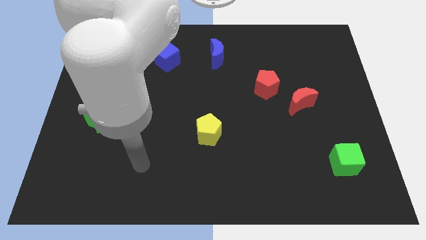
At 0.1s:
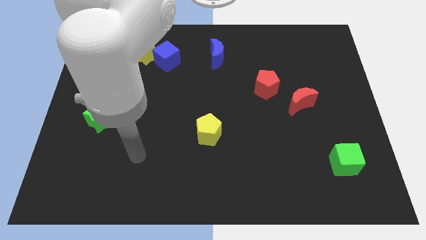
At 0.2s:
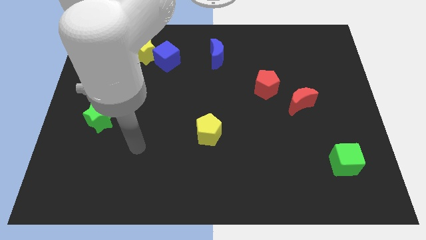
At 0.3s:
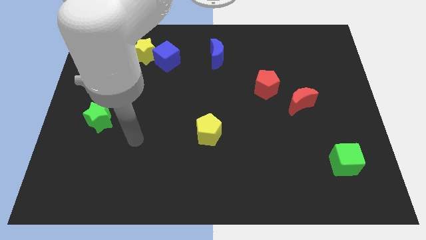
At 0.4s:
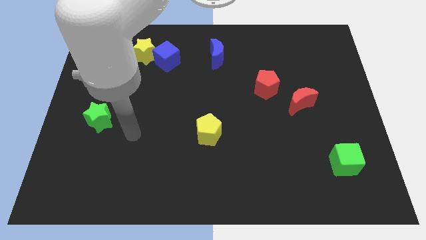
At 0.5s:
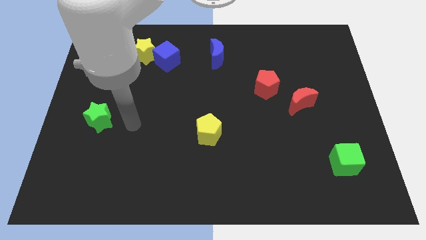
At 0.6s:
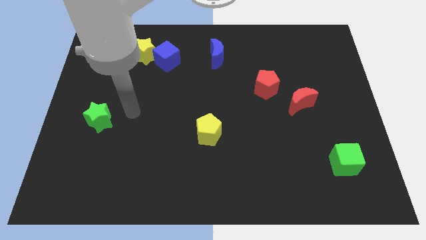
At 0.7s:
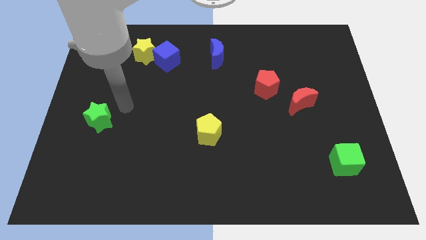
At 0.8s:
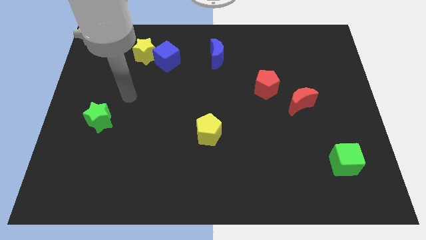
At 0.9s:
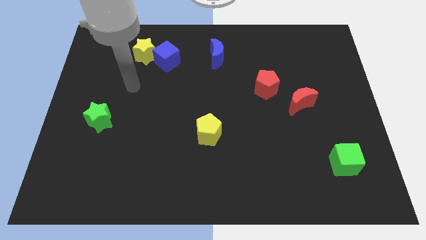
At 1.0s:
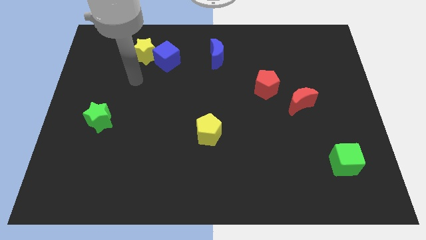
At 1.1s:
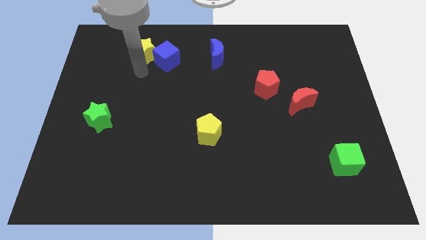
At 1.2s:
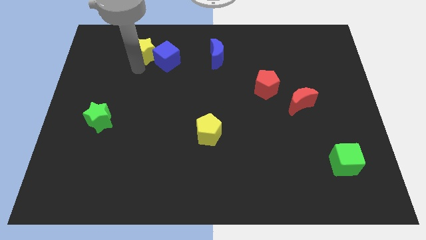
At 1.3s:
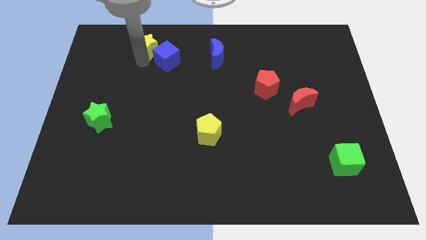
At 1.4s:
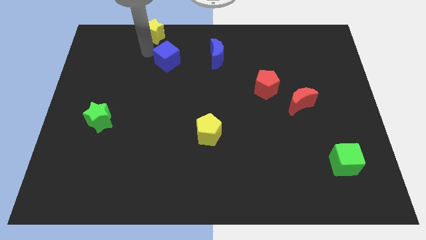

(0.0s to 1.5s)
pull the blue cube apart from the yellow star

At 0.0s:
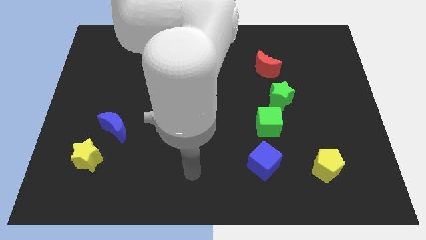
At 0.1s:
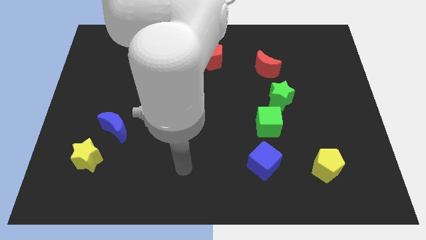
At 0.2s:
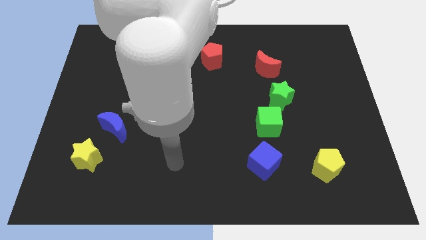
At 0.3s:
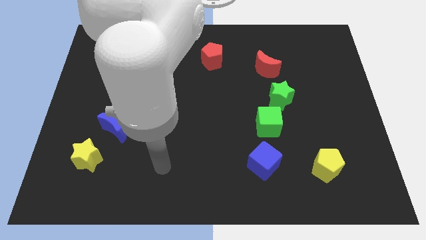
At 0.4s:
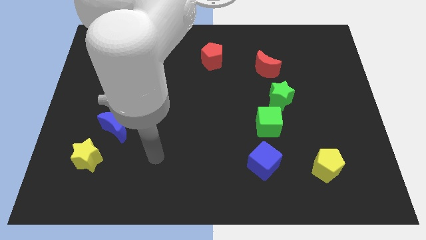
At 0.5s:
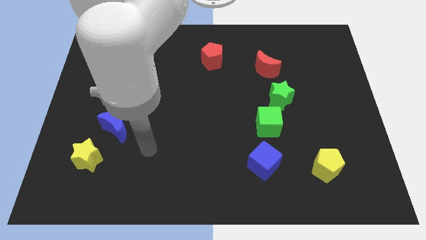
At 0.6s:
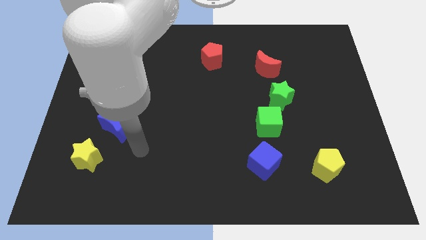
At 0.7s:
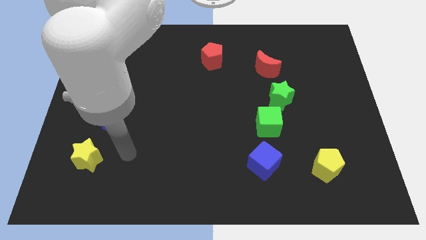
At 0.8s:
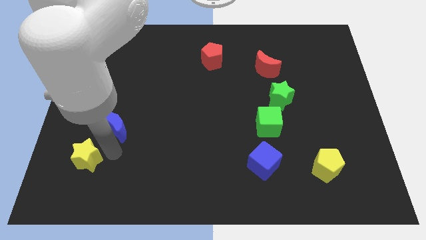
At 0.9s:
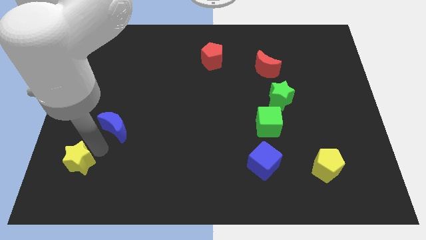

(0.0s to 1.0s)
move the blue moon away from the yellow star

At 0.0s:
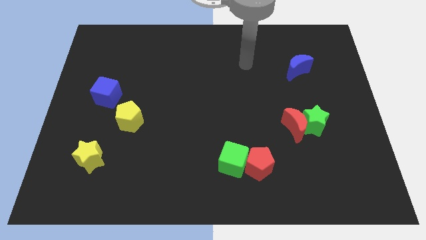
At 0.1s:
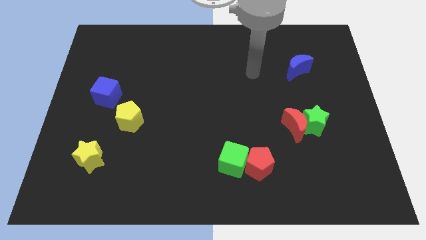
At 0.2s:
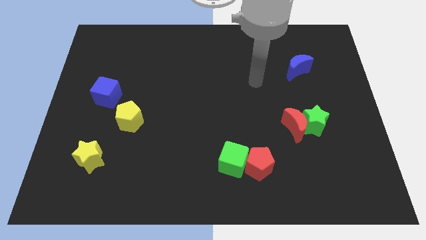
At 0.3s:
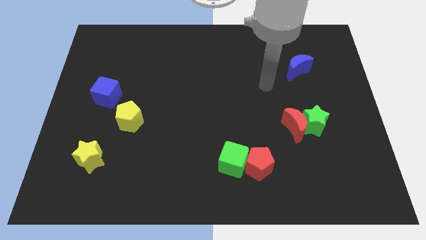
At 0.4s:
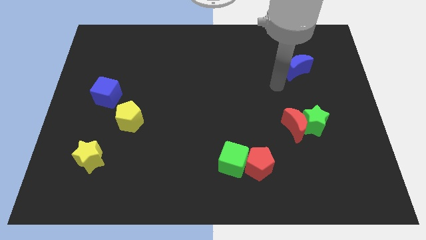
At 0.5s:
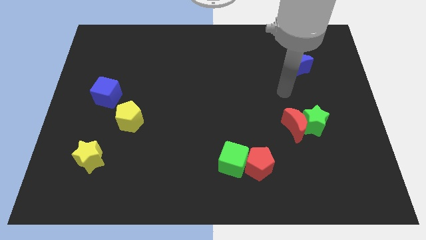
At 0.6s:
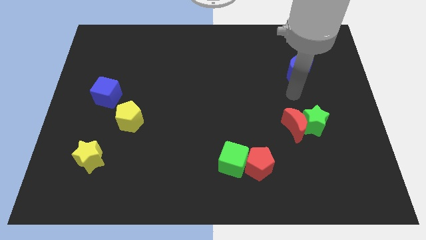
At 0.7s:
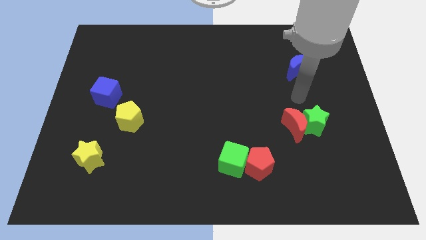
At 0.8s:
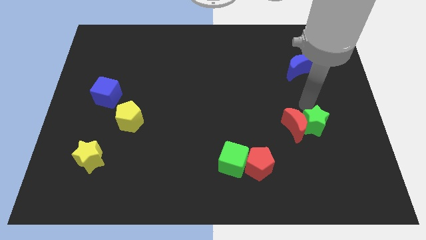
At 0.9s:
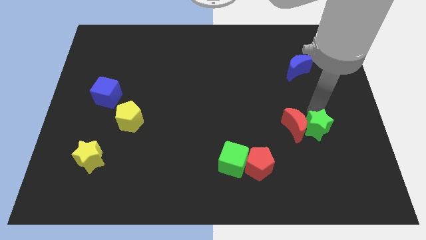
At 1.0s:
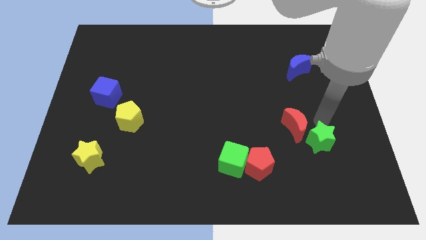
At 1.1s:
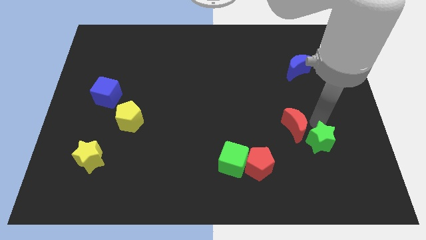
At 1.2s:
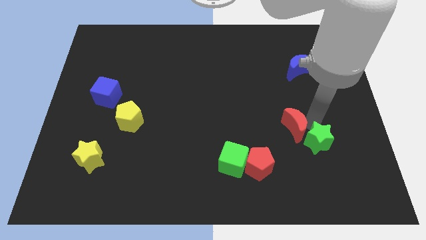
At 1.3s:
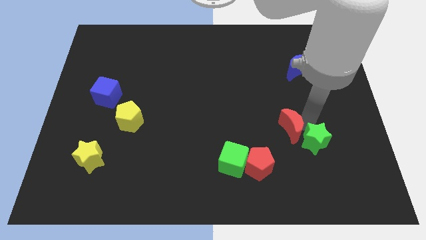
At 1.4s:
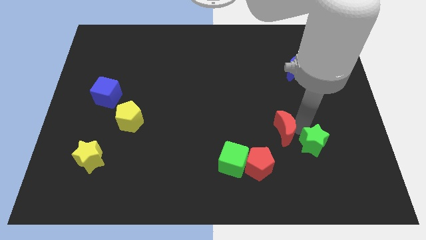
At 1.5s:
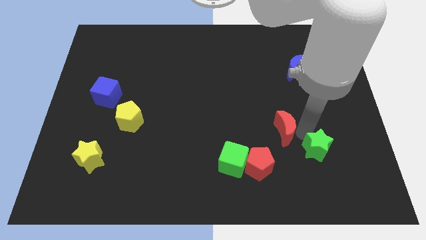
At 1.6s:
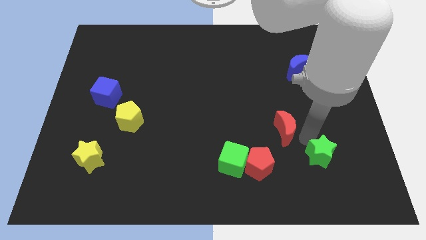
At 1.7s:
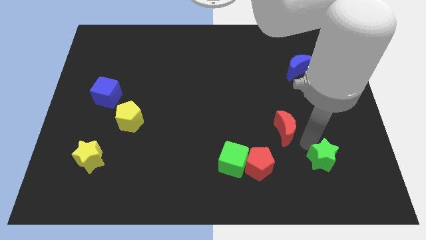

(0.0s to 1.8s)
separate the red moon from the green star

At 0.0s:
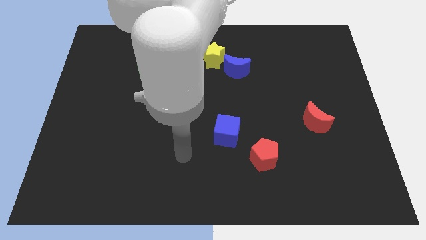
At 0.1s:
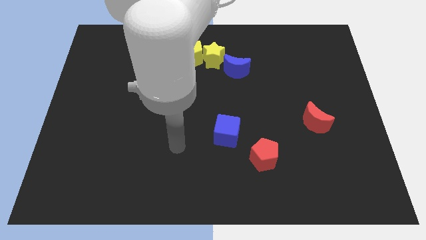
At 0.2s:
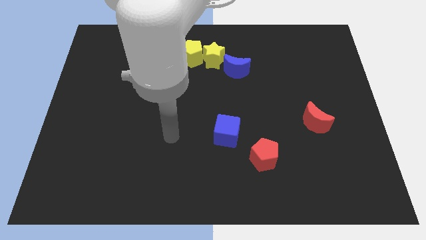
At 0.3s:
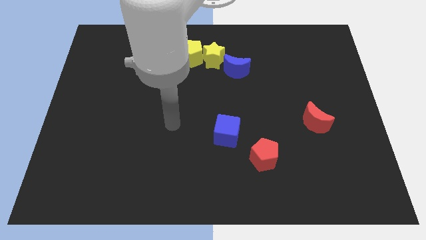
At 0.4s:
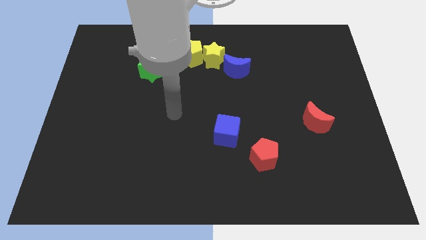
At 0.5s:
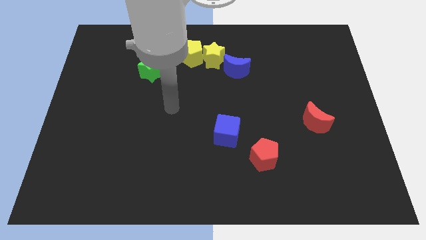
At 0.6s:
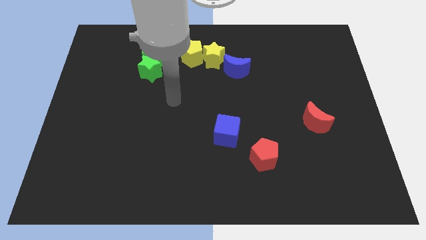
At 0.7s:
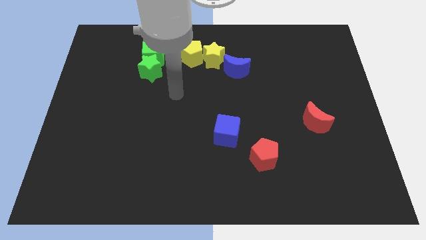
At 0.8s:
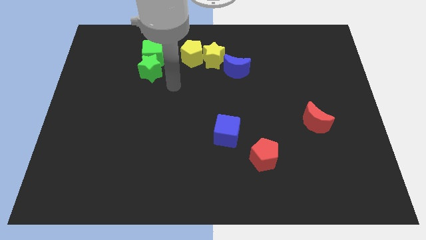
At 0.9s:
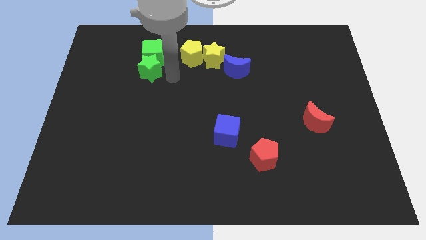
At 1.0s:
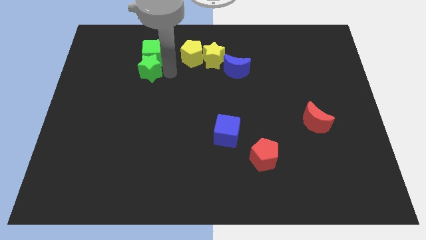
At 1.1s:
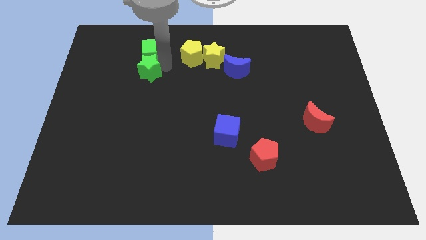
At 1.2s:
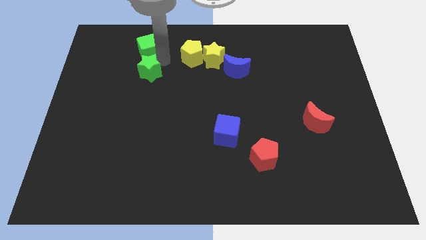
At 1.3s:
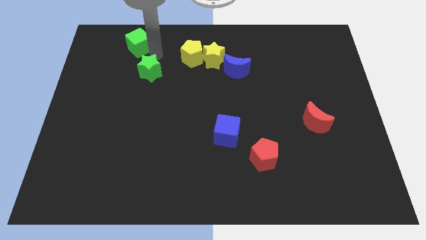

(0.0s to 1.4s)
pull the green star apart from the green cube

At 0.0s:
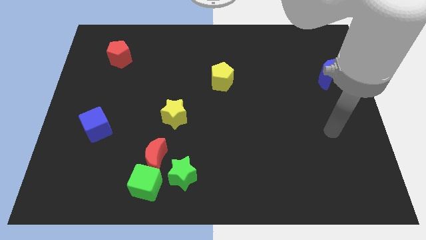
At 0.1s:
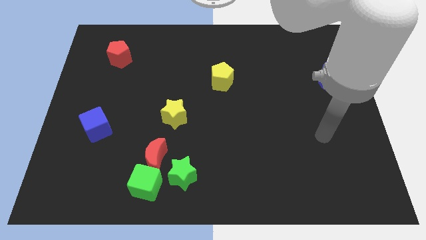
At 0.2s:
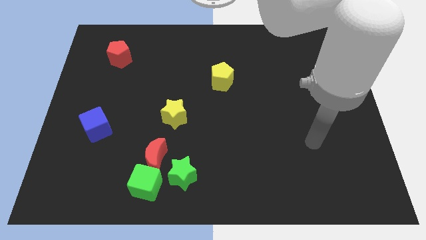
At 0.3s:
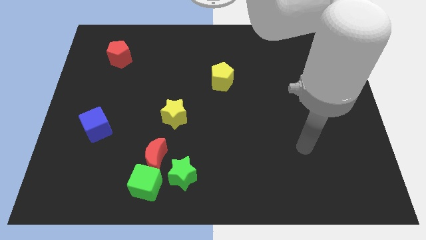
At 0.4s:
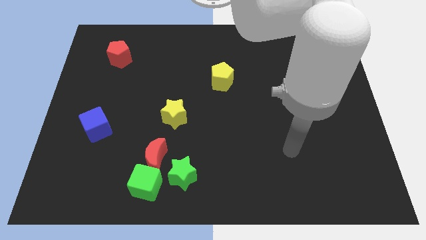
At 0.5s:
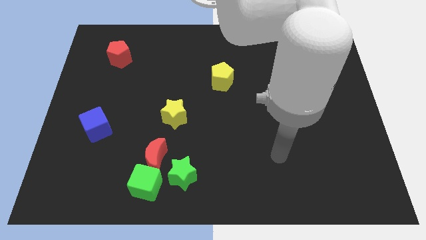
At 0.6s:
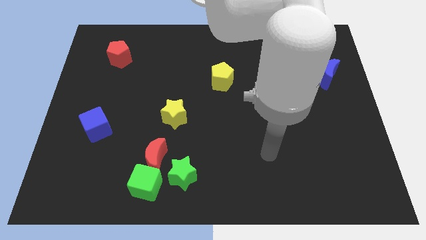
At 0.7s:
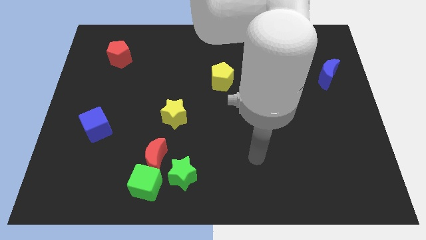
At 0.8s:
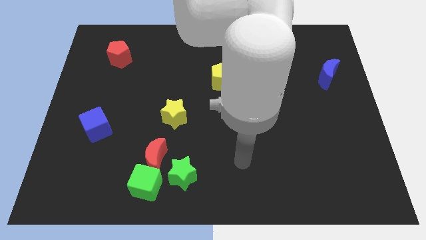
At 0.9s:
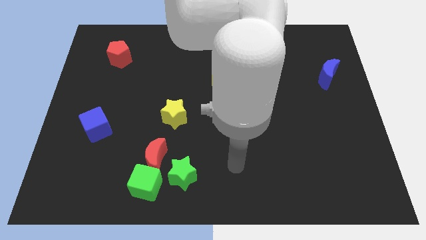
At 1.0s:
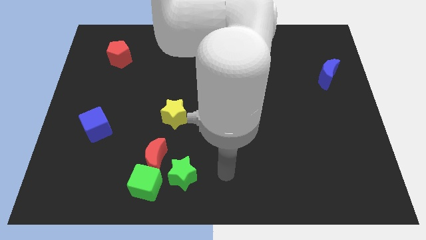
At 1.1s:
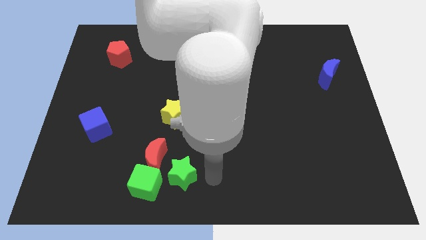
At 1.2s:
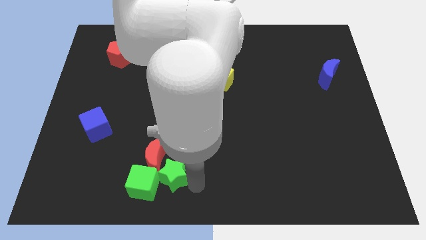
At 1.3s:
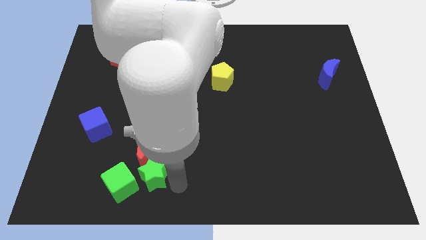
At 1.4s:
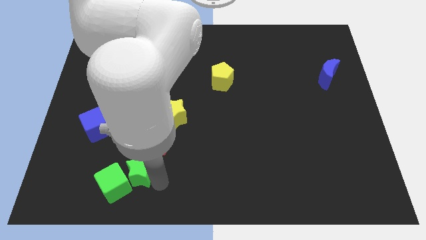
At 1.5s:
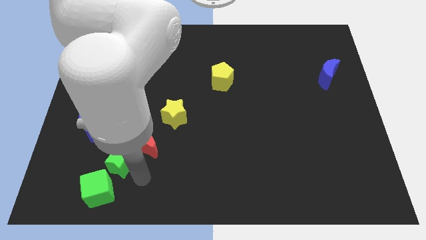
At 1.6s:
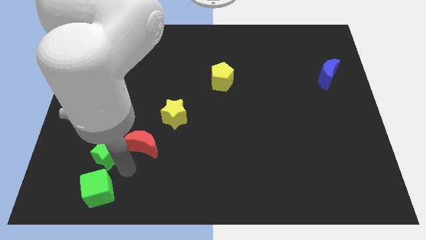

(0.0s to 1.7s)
pull the red moon apart from the green cube and green star

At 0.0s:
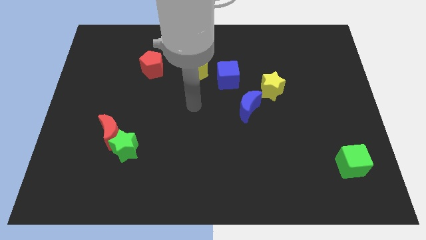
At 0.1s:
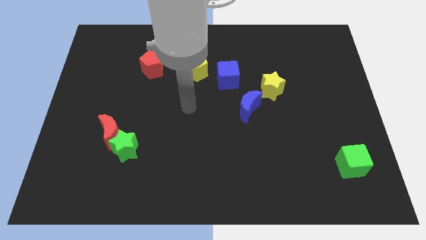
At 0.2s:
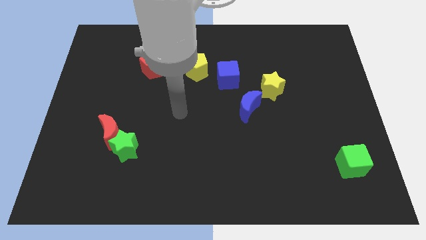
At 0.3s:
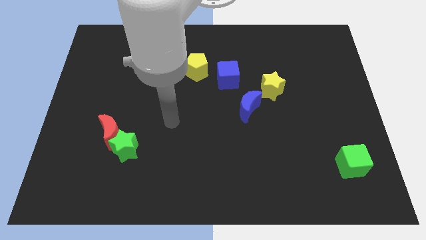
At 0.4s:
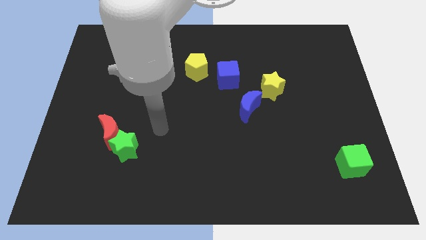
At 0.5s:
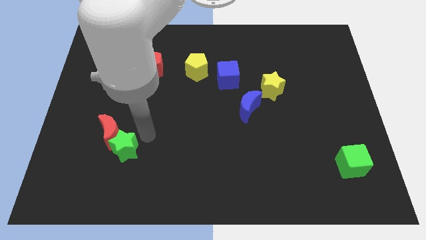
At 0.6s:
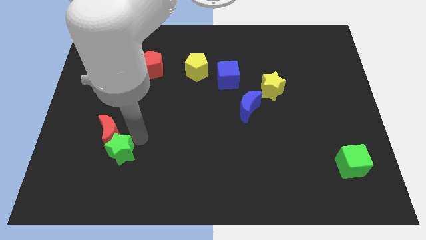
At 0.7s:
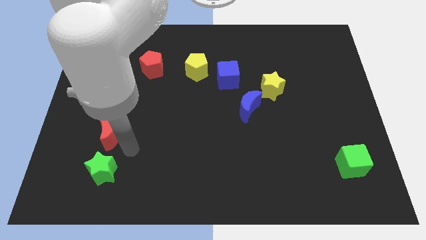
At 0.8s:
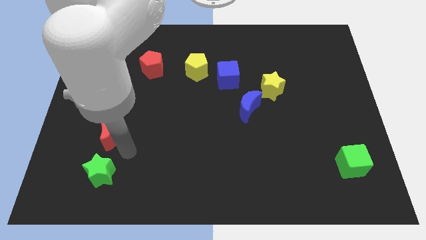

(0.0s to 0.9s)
move the red moon away from the green star

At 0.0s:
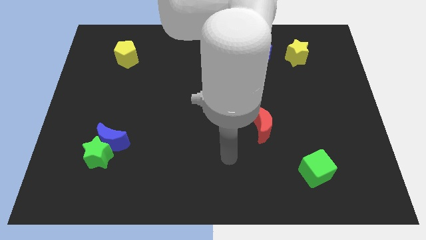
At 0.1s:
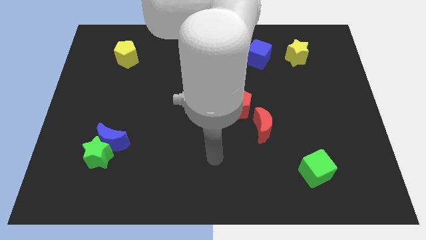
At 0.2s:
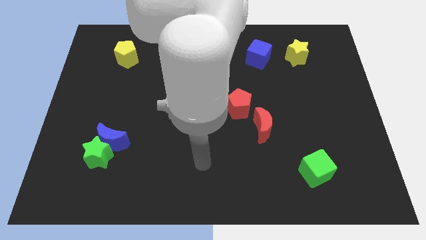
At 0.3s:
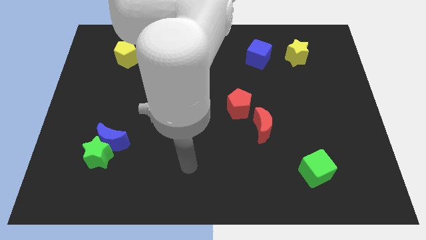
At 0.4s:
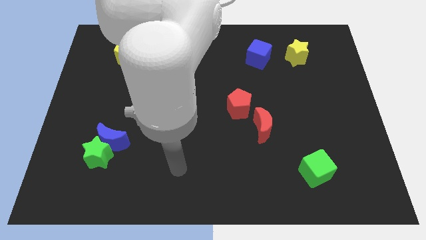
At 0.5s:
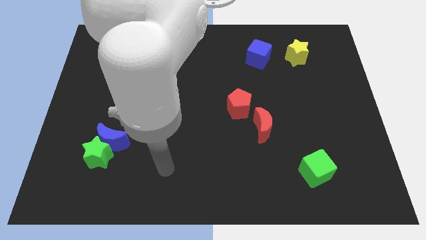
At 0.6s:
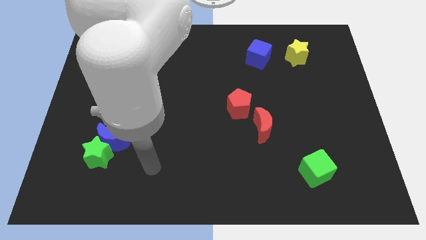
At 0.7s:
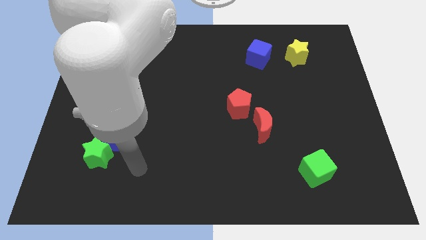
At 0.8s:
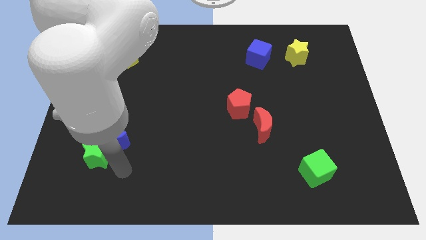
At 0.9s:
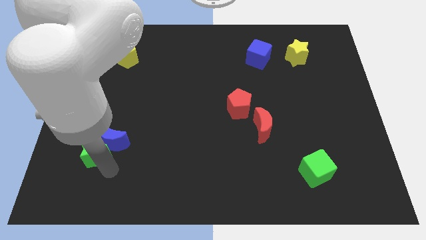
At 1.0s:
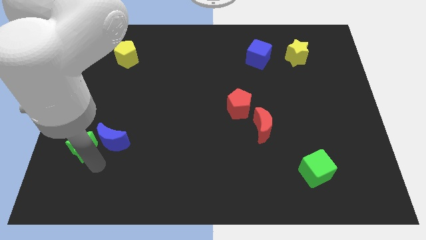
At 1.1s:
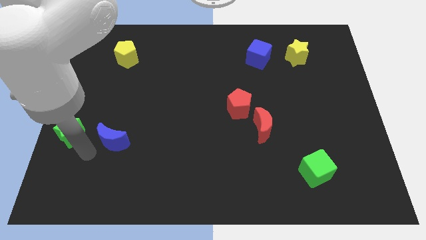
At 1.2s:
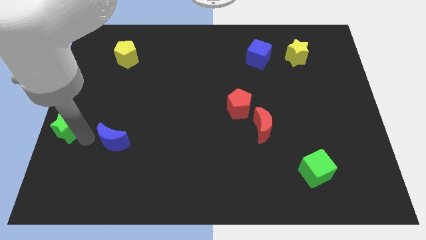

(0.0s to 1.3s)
move the blue moon away from the green star
